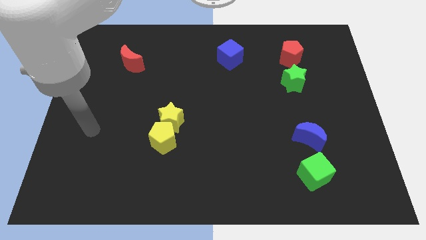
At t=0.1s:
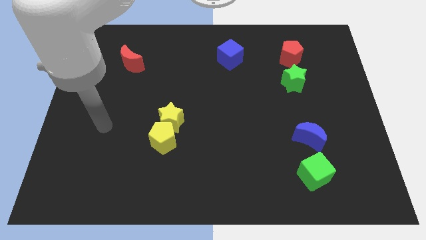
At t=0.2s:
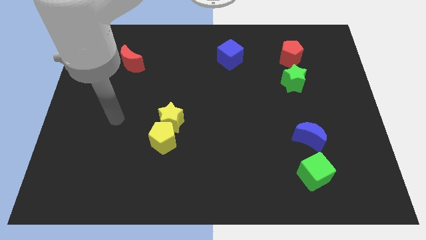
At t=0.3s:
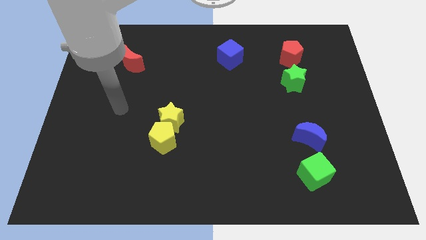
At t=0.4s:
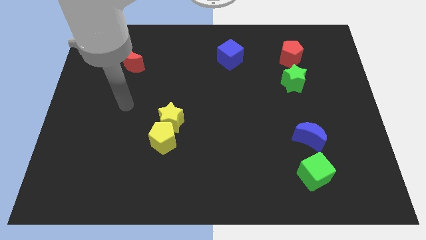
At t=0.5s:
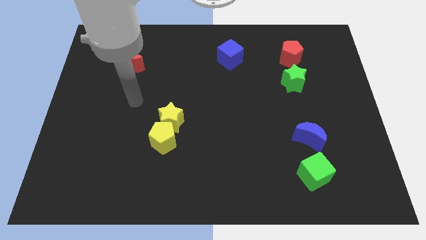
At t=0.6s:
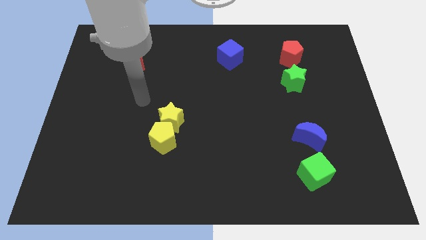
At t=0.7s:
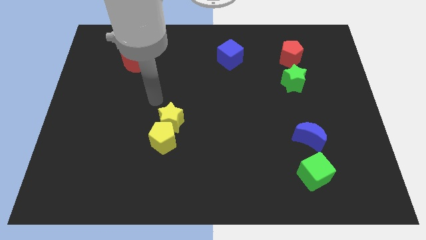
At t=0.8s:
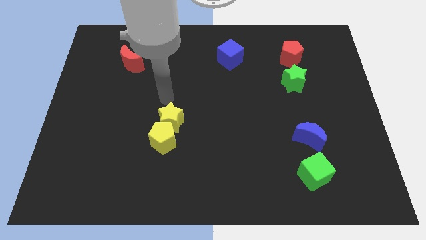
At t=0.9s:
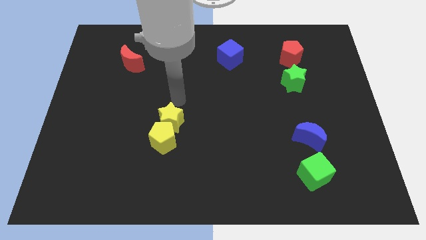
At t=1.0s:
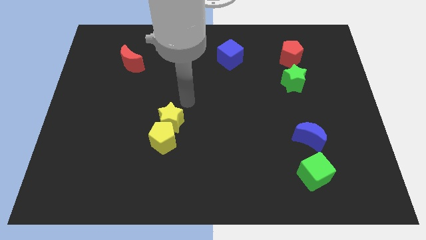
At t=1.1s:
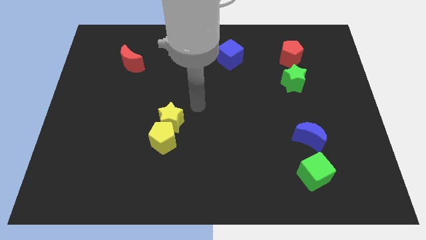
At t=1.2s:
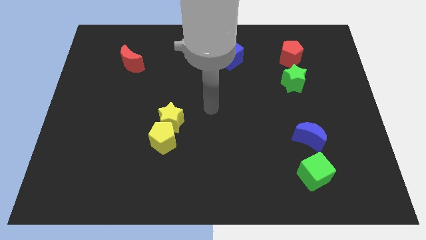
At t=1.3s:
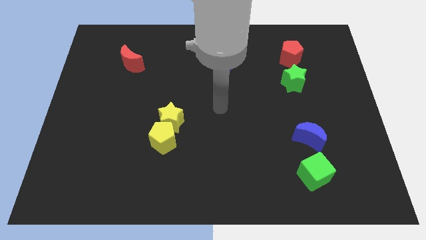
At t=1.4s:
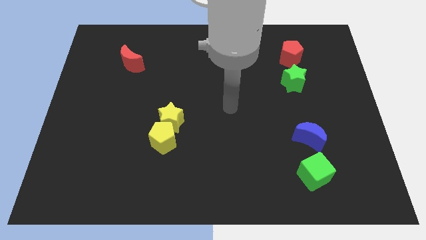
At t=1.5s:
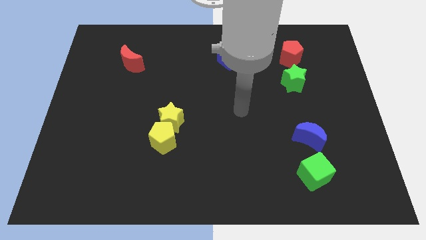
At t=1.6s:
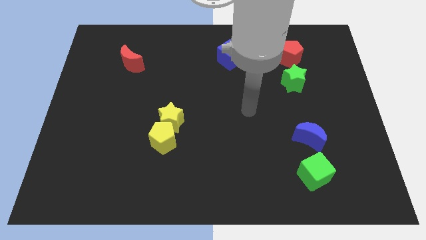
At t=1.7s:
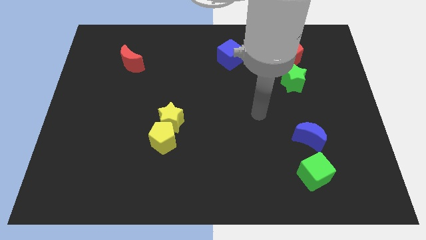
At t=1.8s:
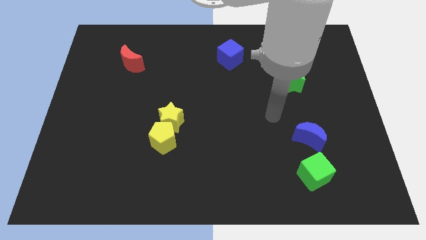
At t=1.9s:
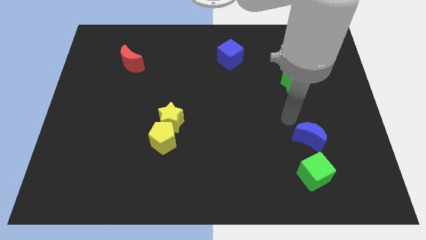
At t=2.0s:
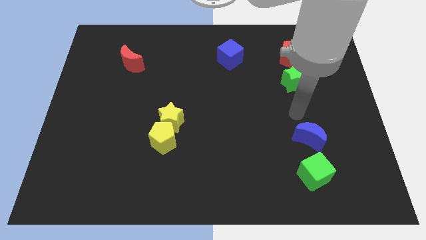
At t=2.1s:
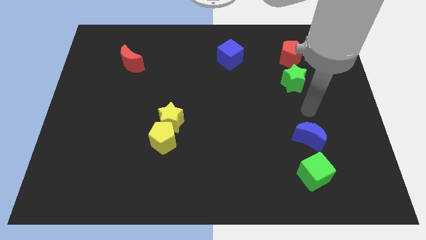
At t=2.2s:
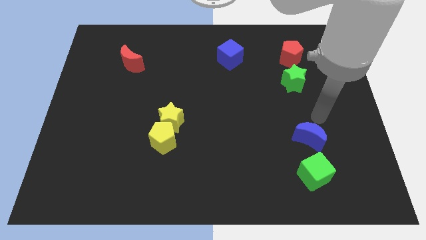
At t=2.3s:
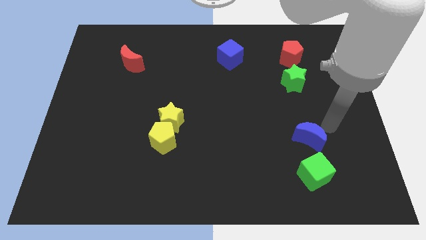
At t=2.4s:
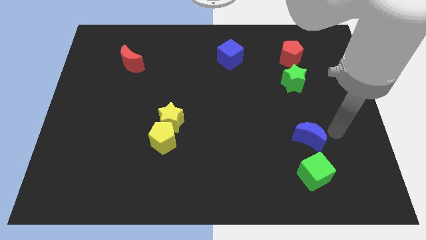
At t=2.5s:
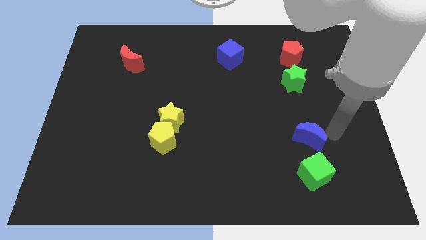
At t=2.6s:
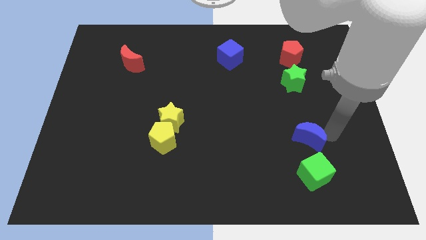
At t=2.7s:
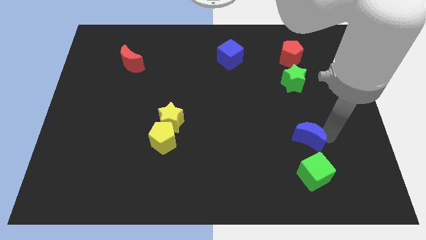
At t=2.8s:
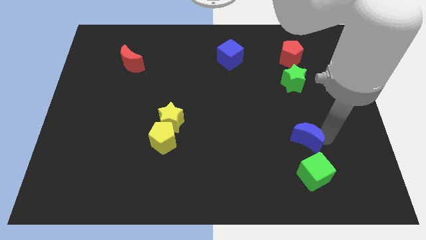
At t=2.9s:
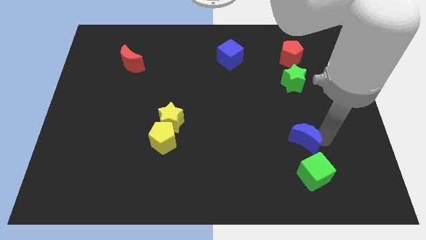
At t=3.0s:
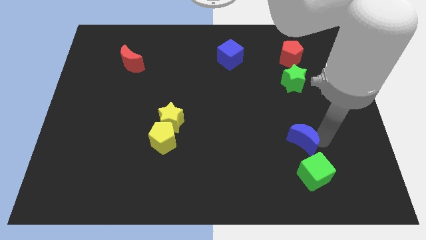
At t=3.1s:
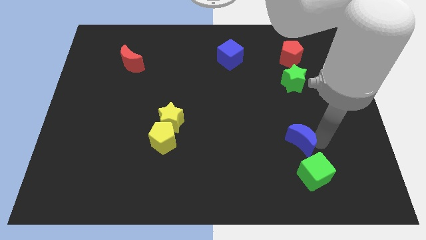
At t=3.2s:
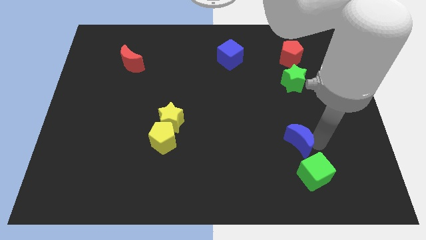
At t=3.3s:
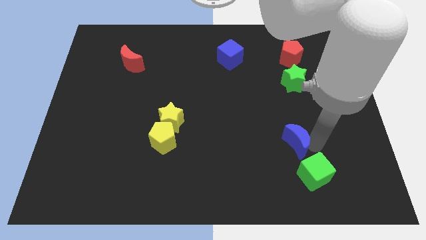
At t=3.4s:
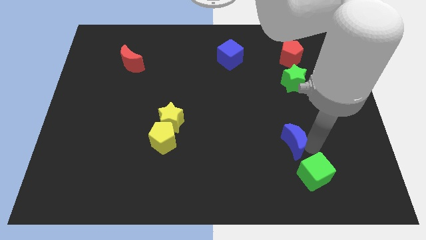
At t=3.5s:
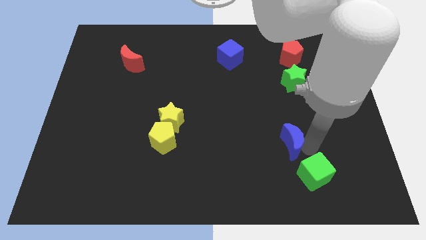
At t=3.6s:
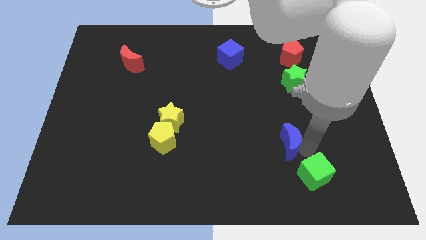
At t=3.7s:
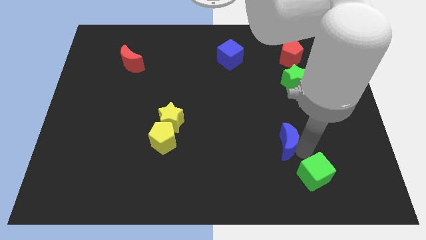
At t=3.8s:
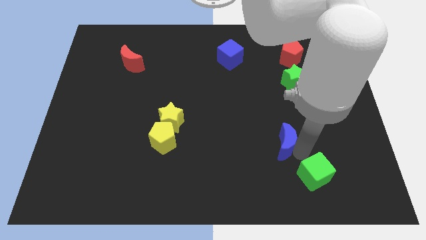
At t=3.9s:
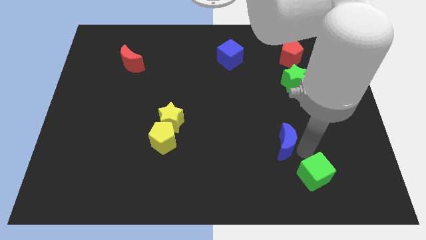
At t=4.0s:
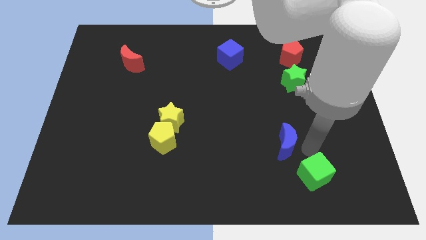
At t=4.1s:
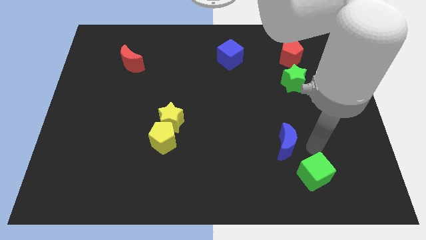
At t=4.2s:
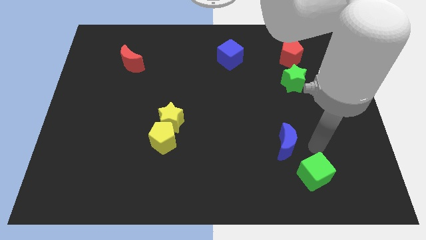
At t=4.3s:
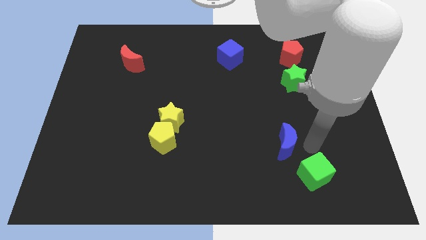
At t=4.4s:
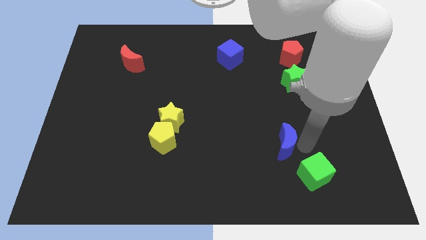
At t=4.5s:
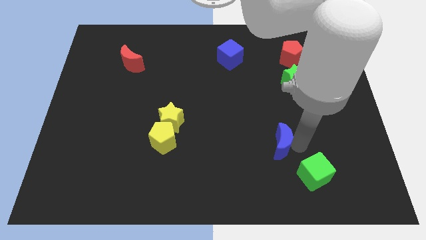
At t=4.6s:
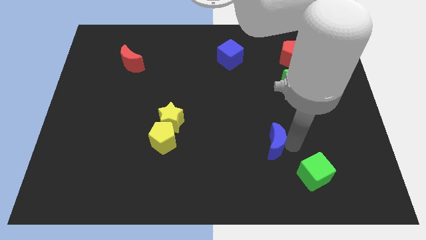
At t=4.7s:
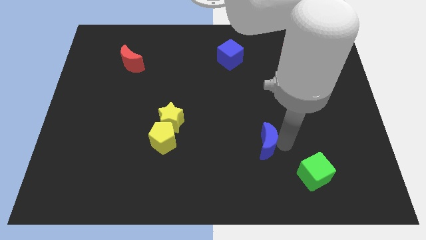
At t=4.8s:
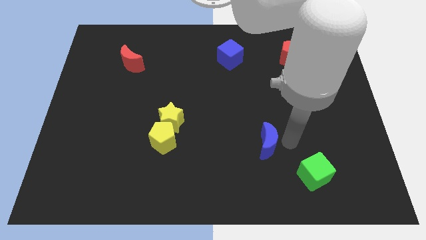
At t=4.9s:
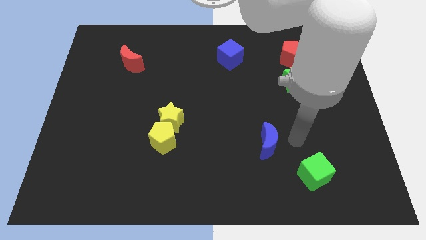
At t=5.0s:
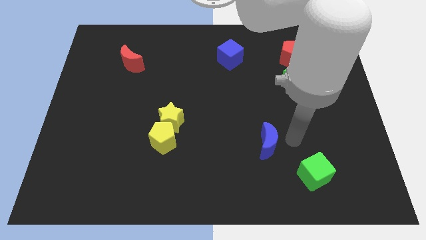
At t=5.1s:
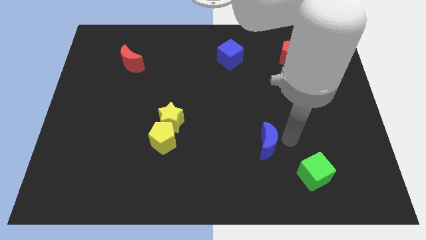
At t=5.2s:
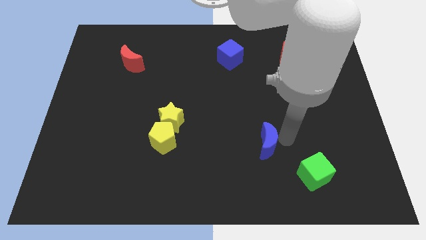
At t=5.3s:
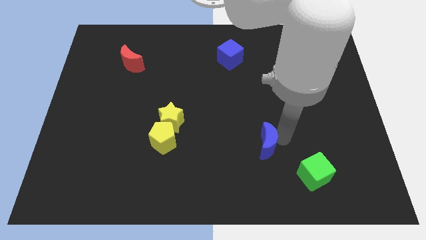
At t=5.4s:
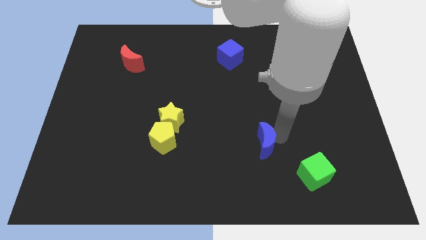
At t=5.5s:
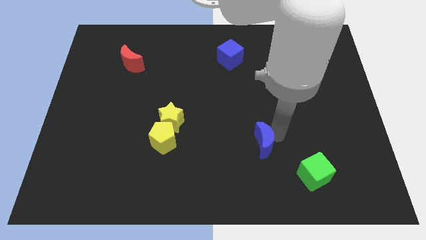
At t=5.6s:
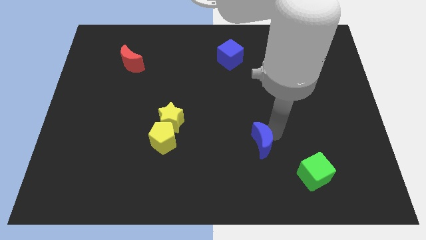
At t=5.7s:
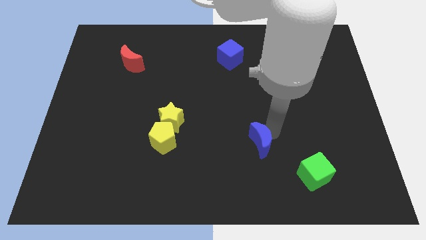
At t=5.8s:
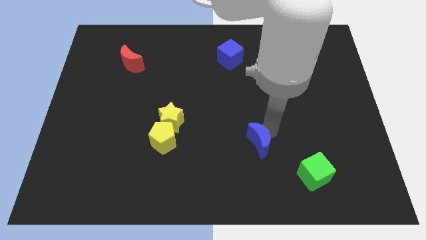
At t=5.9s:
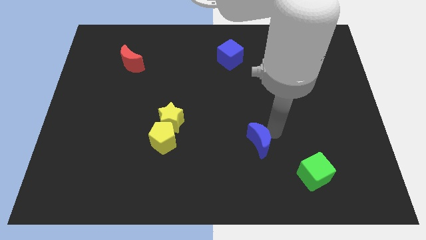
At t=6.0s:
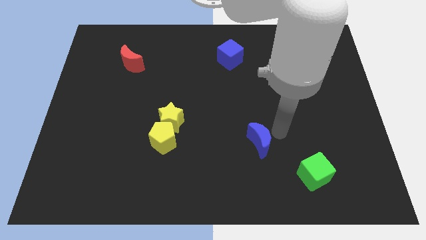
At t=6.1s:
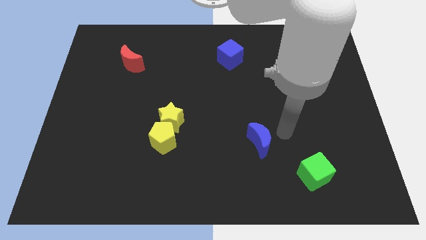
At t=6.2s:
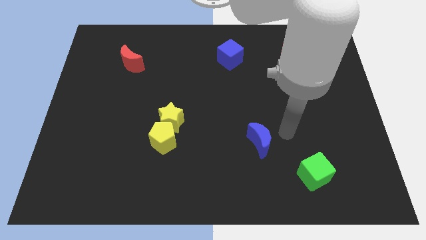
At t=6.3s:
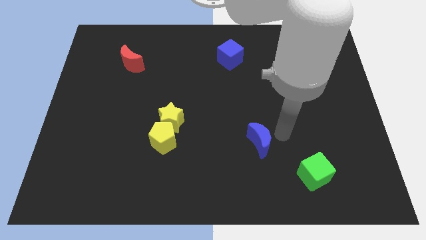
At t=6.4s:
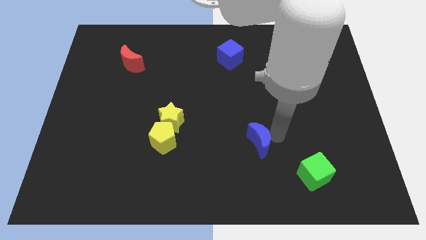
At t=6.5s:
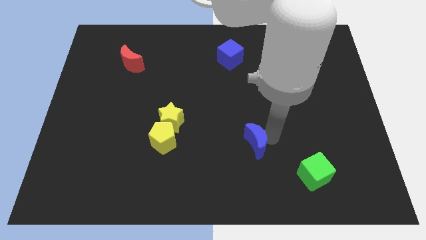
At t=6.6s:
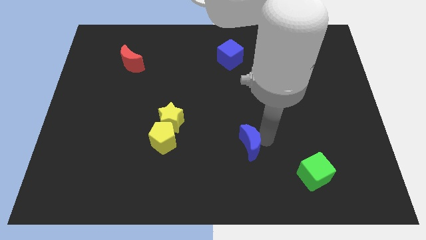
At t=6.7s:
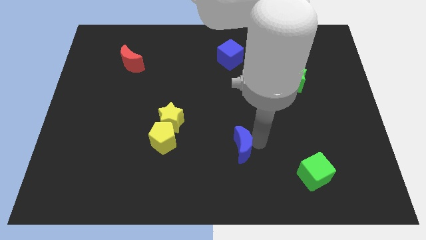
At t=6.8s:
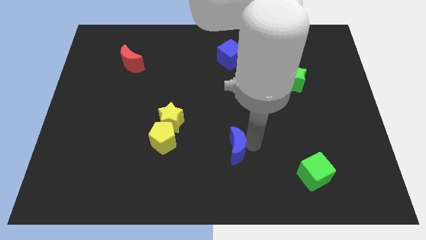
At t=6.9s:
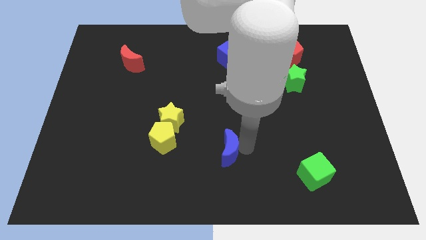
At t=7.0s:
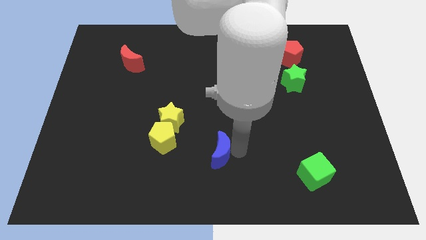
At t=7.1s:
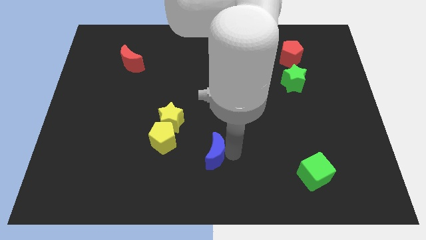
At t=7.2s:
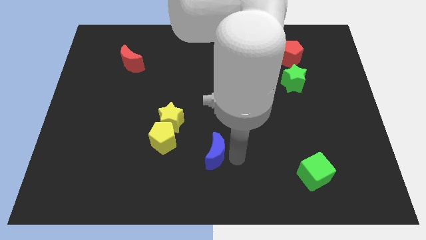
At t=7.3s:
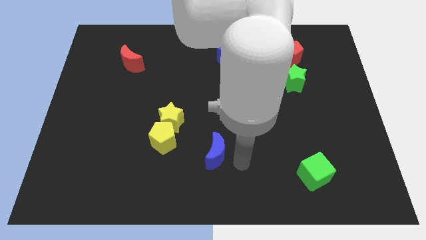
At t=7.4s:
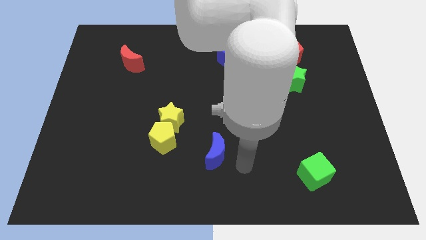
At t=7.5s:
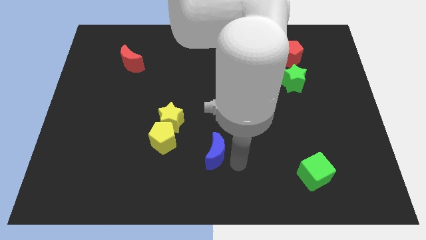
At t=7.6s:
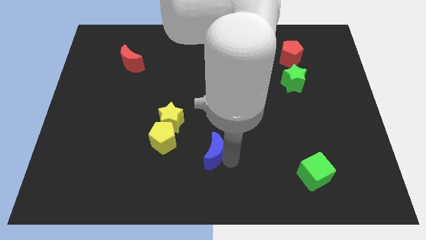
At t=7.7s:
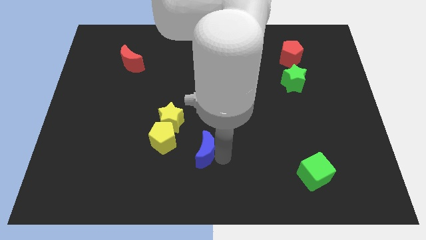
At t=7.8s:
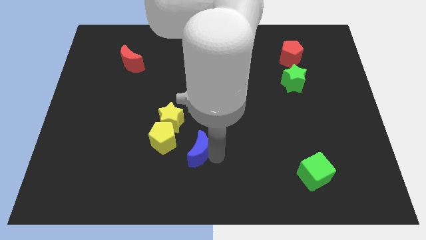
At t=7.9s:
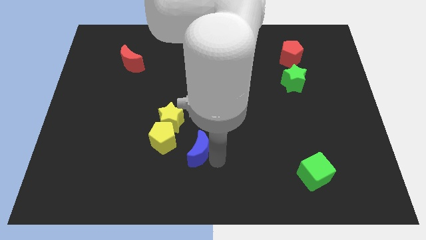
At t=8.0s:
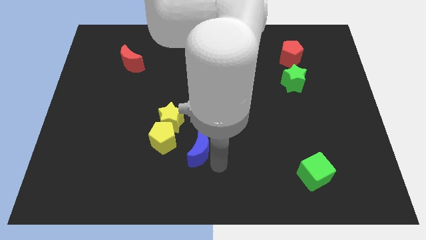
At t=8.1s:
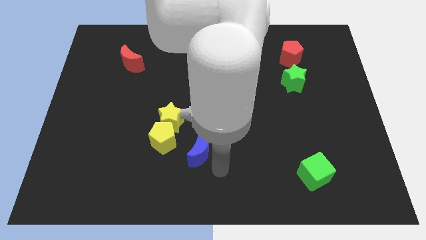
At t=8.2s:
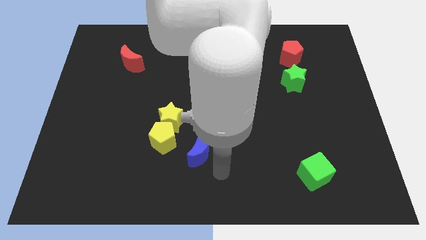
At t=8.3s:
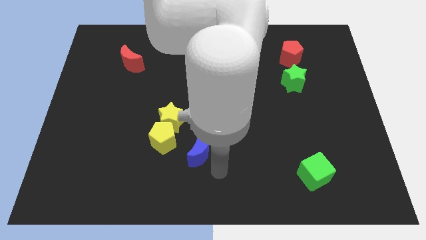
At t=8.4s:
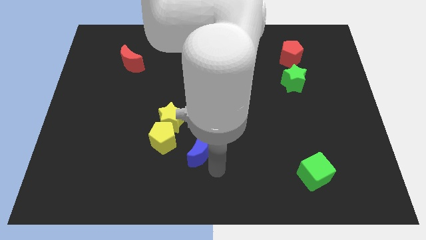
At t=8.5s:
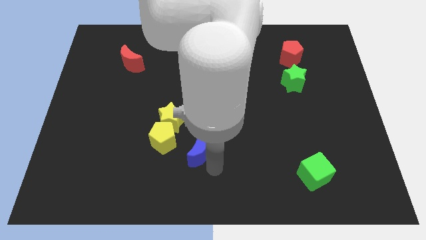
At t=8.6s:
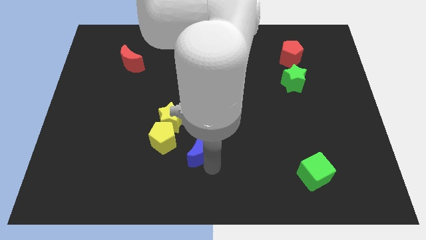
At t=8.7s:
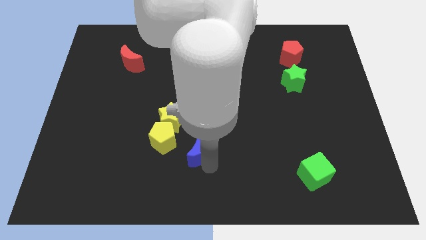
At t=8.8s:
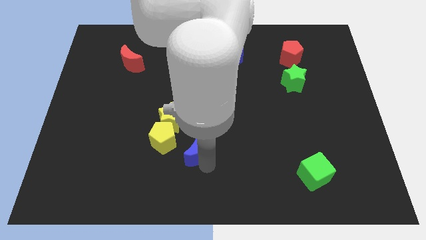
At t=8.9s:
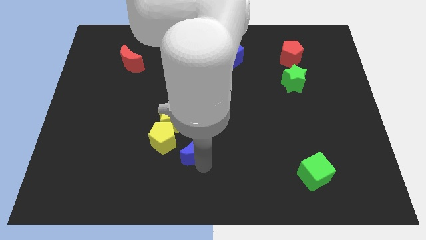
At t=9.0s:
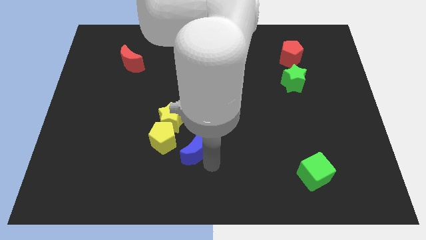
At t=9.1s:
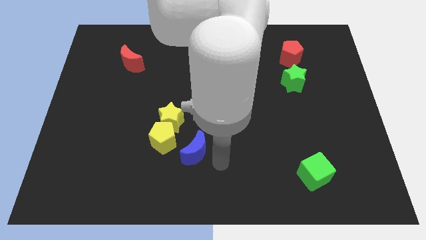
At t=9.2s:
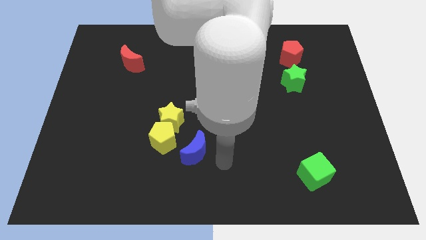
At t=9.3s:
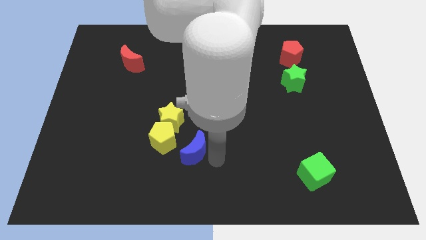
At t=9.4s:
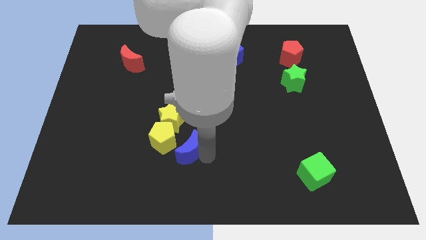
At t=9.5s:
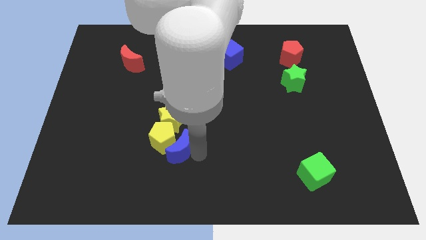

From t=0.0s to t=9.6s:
push the blue moon next to the yellow pentagon
